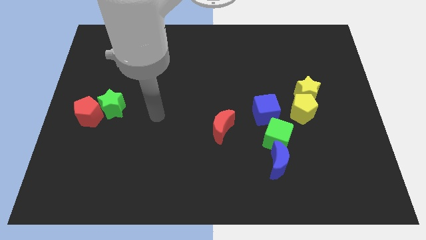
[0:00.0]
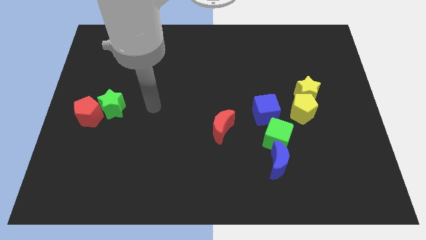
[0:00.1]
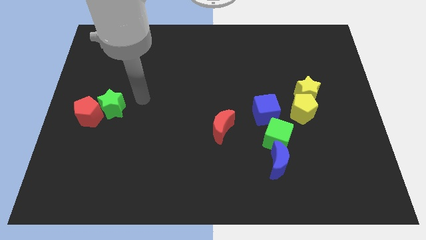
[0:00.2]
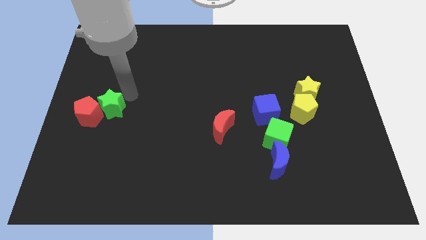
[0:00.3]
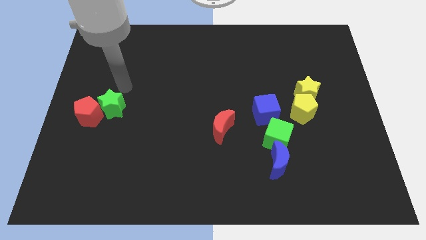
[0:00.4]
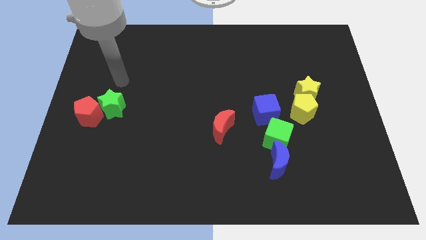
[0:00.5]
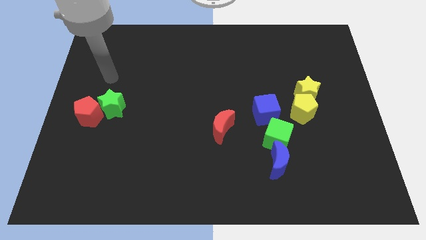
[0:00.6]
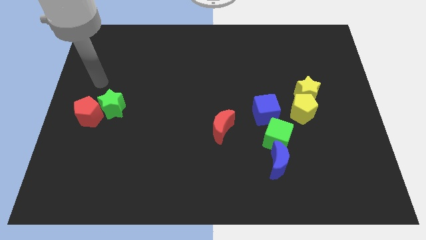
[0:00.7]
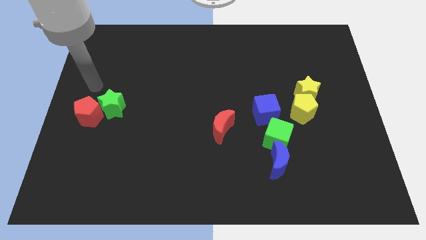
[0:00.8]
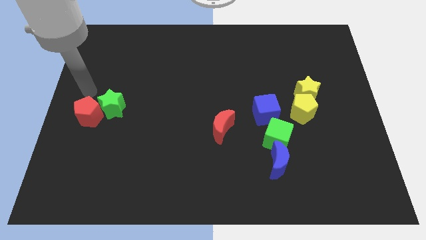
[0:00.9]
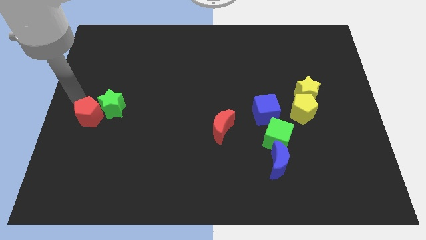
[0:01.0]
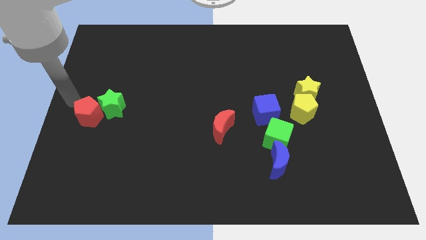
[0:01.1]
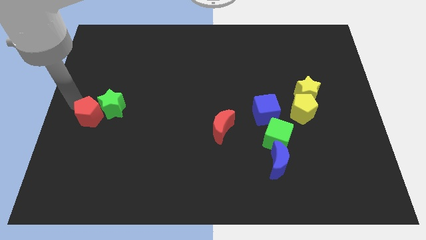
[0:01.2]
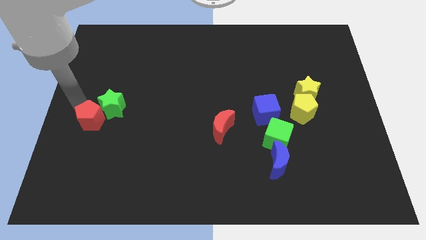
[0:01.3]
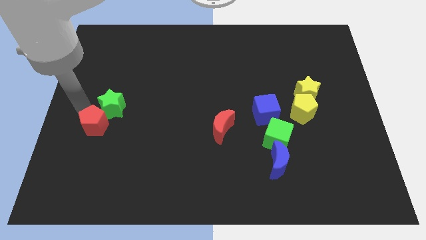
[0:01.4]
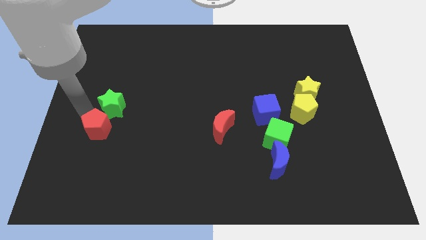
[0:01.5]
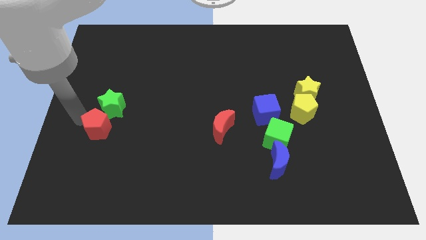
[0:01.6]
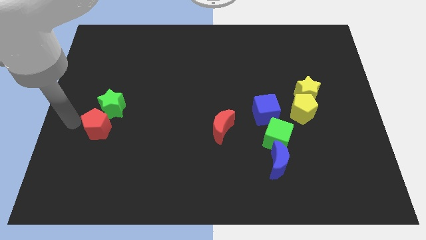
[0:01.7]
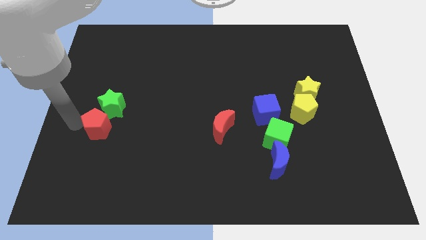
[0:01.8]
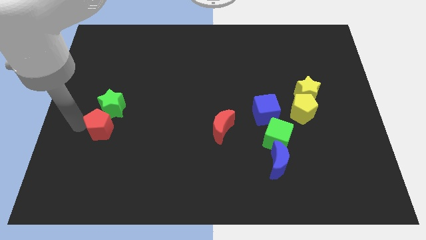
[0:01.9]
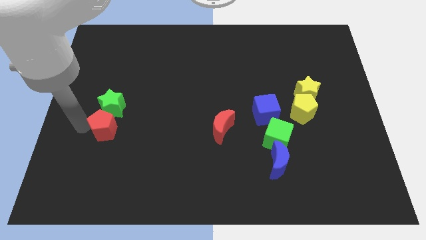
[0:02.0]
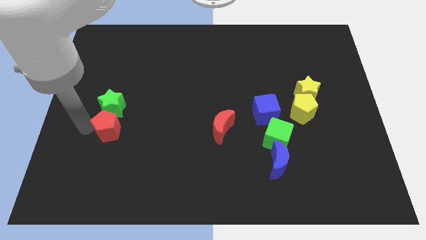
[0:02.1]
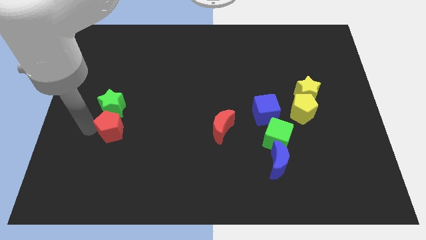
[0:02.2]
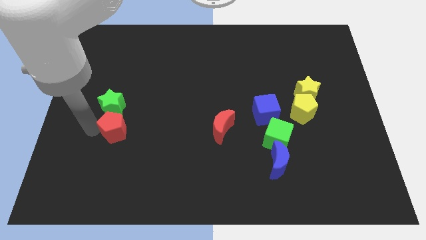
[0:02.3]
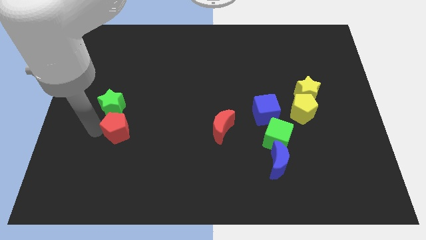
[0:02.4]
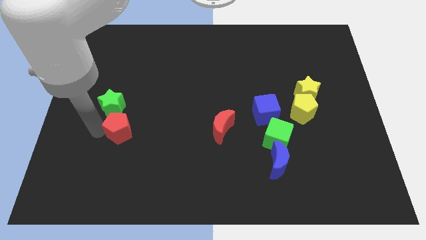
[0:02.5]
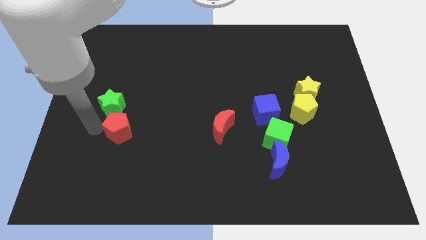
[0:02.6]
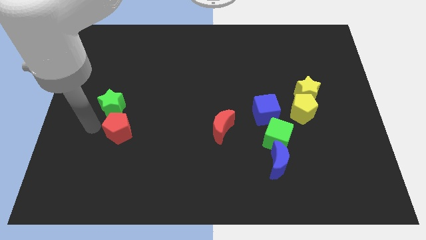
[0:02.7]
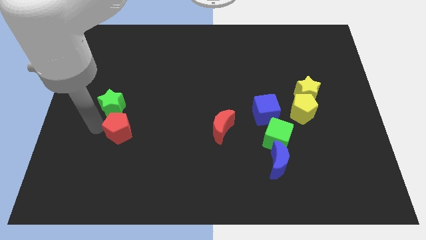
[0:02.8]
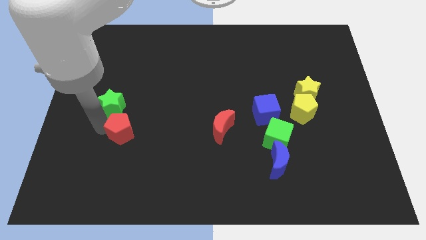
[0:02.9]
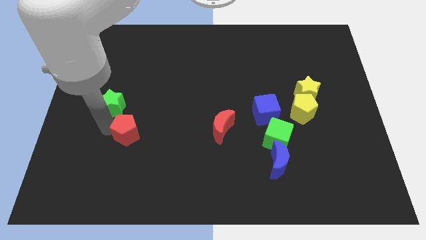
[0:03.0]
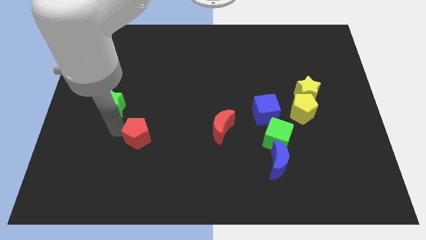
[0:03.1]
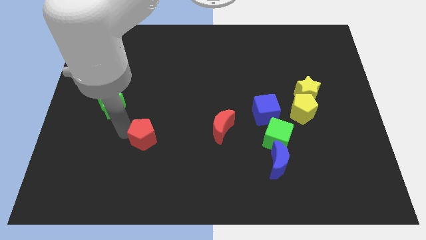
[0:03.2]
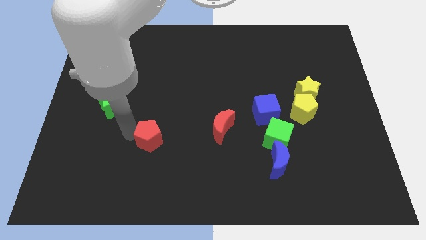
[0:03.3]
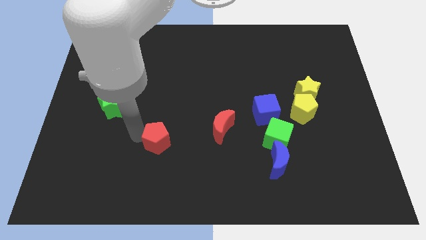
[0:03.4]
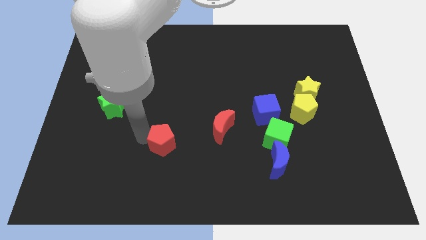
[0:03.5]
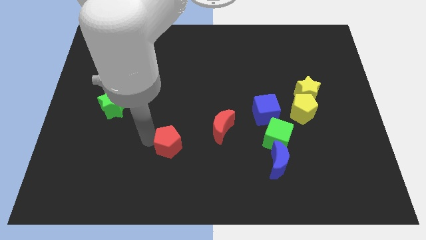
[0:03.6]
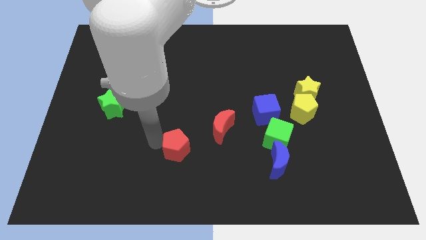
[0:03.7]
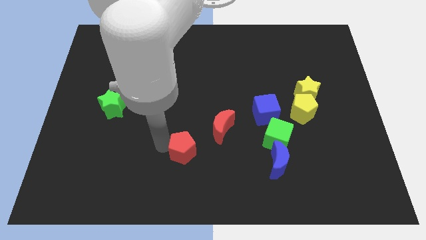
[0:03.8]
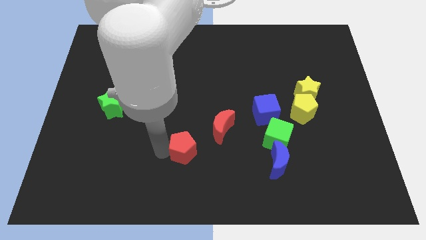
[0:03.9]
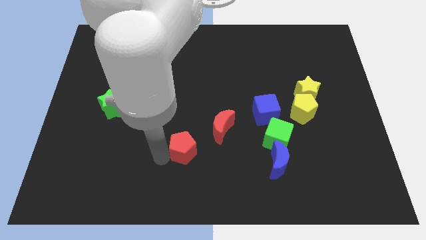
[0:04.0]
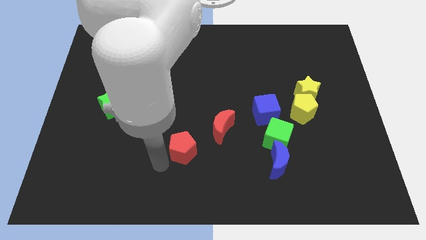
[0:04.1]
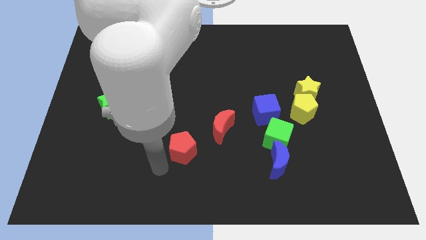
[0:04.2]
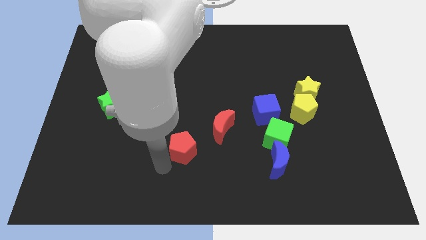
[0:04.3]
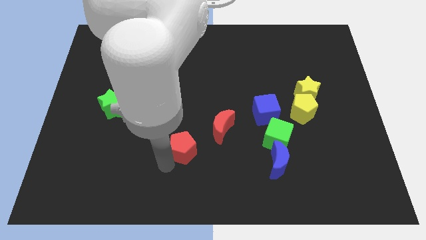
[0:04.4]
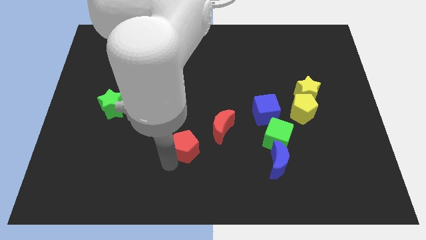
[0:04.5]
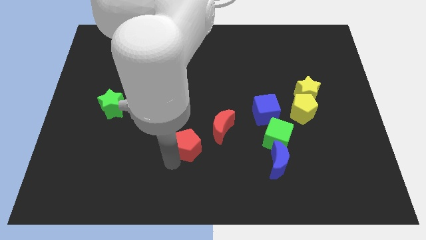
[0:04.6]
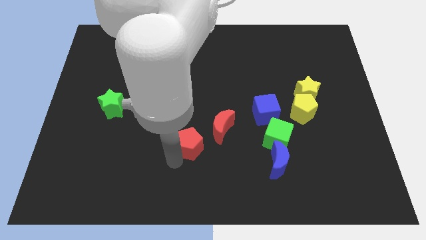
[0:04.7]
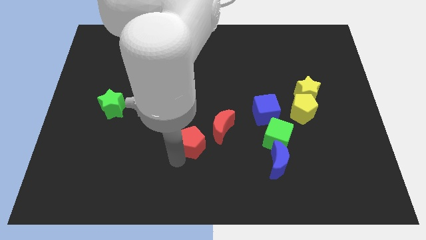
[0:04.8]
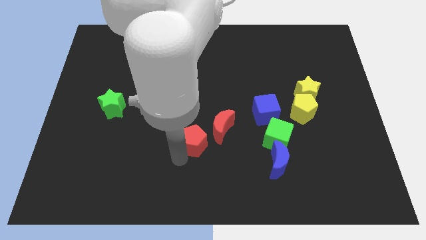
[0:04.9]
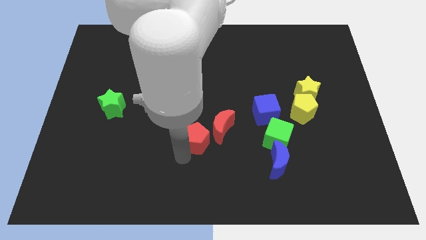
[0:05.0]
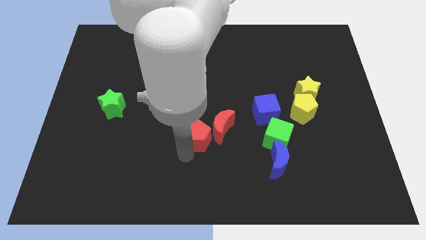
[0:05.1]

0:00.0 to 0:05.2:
slide the red pentagon to the red moon

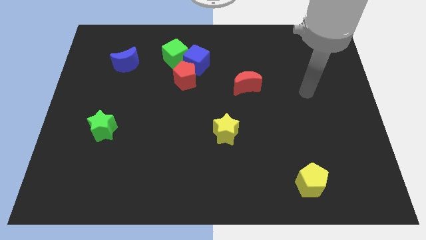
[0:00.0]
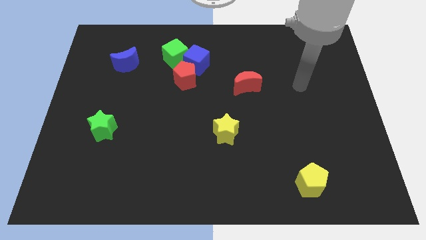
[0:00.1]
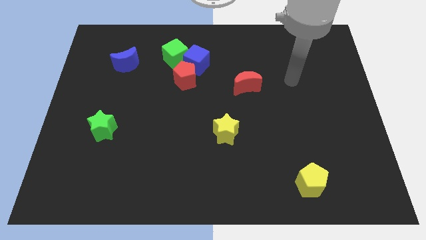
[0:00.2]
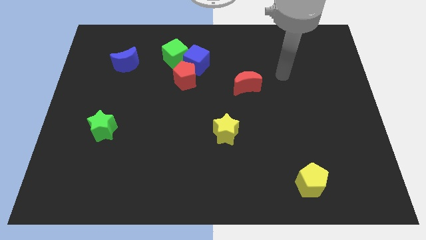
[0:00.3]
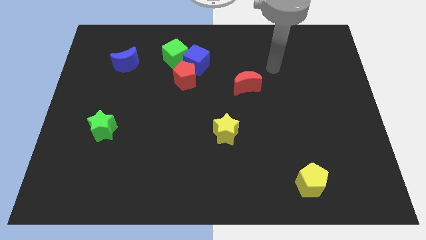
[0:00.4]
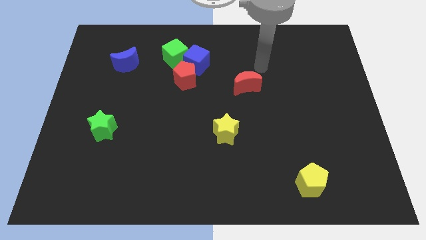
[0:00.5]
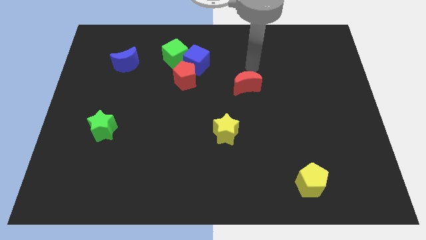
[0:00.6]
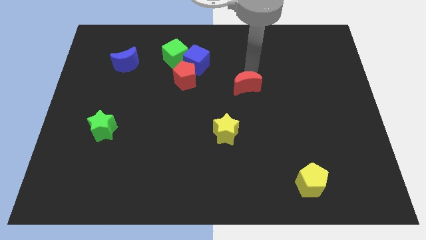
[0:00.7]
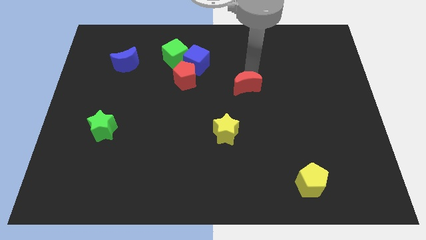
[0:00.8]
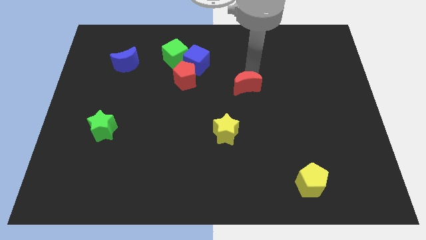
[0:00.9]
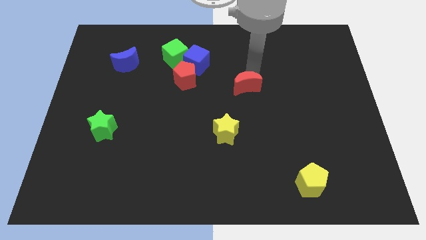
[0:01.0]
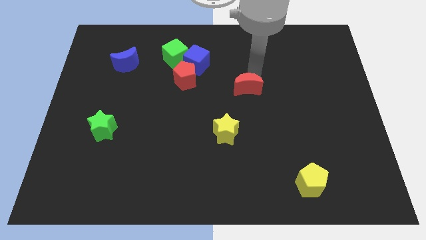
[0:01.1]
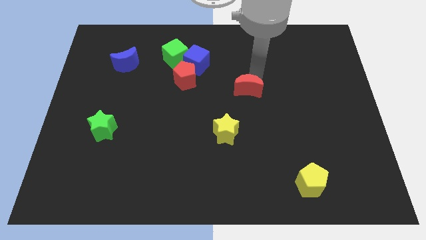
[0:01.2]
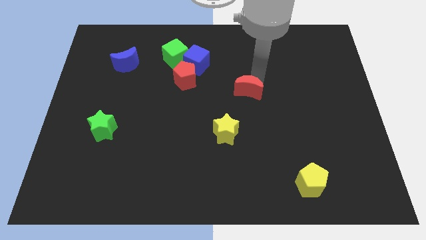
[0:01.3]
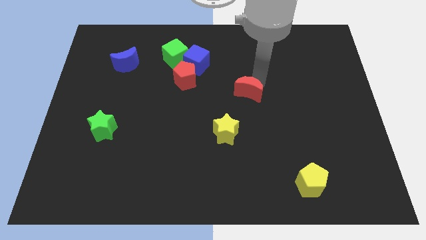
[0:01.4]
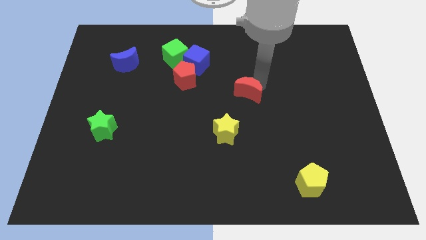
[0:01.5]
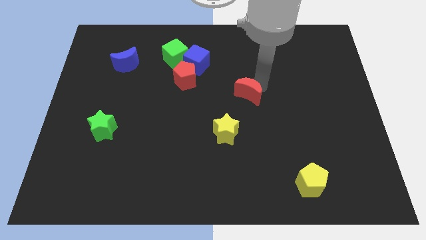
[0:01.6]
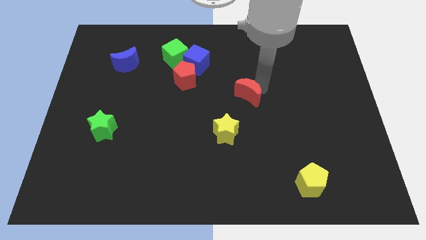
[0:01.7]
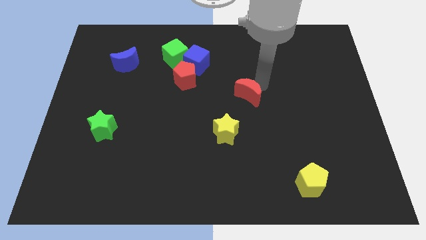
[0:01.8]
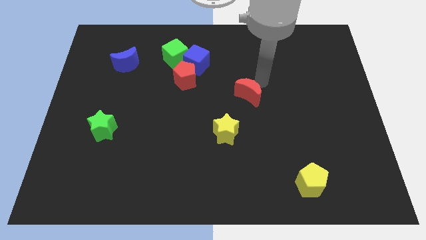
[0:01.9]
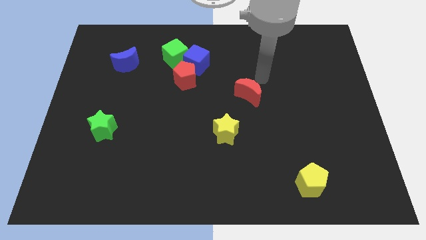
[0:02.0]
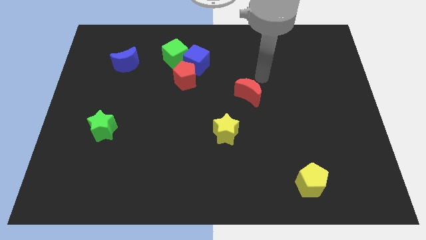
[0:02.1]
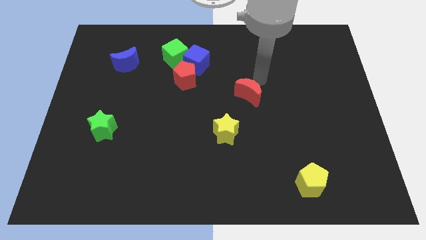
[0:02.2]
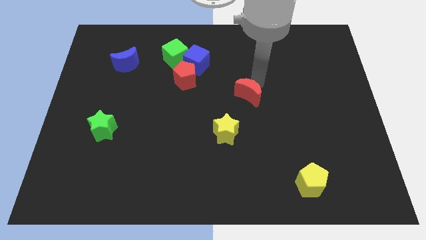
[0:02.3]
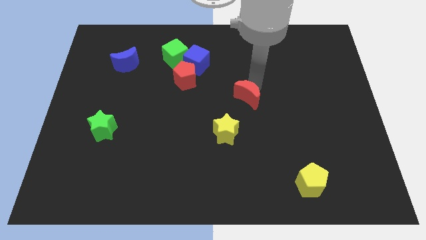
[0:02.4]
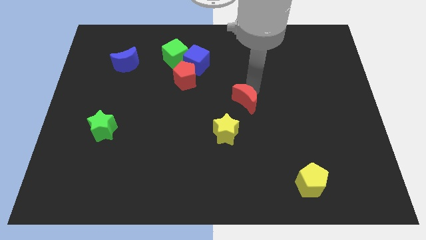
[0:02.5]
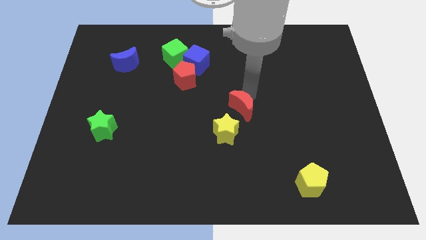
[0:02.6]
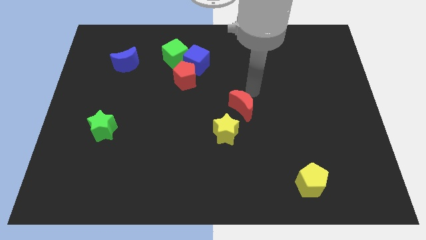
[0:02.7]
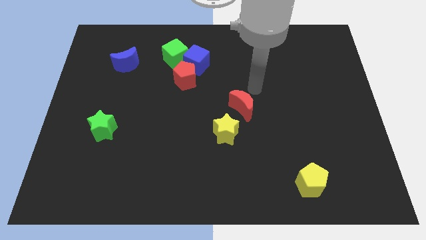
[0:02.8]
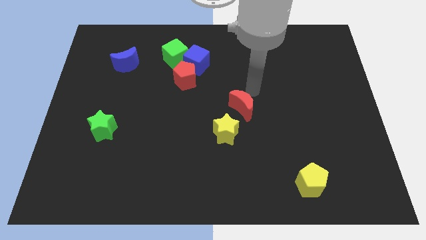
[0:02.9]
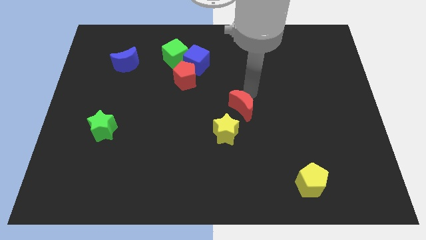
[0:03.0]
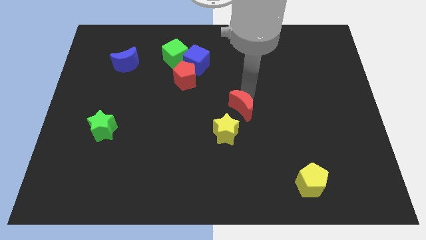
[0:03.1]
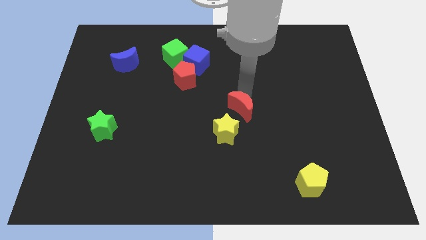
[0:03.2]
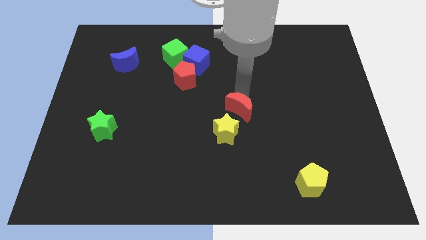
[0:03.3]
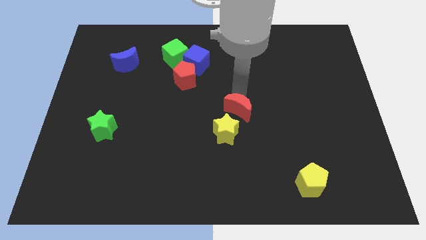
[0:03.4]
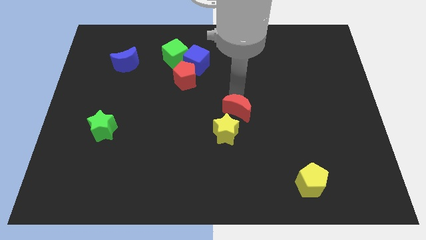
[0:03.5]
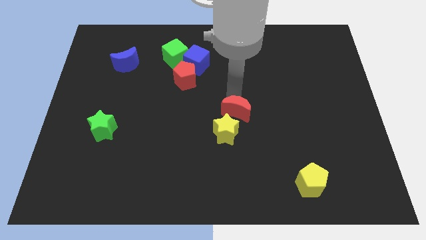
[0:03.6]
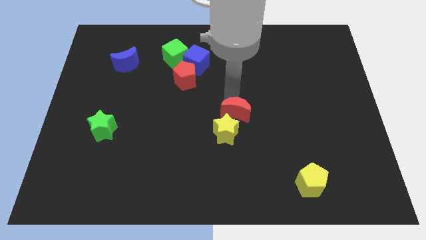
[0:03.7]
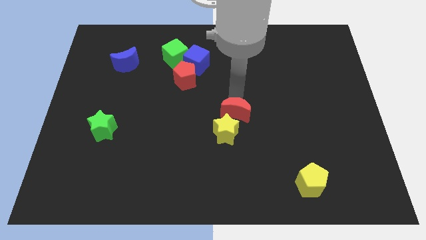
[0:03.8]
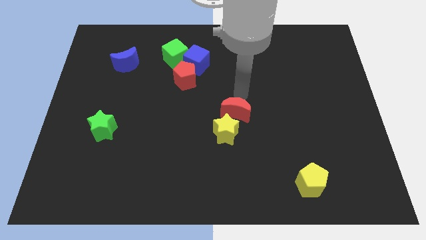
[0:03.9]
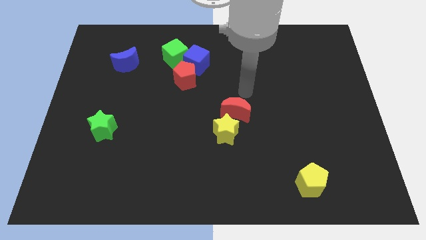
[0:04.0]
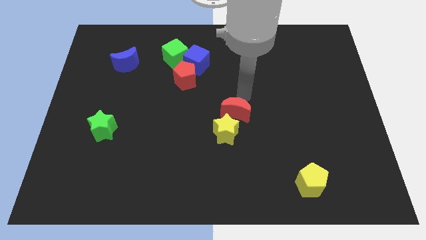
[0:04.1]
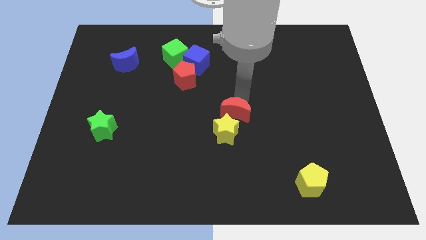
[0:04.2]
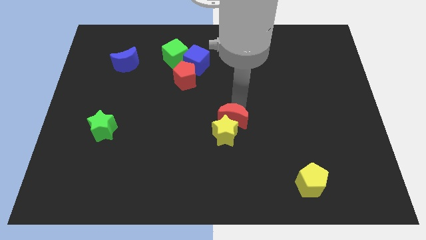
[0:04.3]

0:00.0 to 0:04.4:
push the red moon to the yellow star
